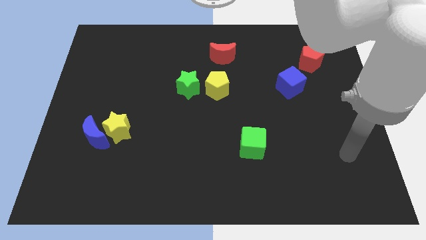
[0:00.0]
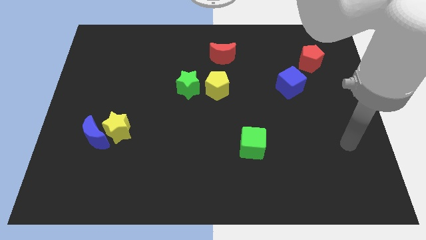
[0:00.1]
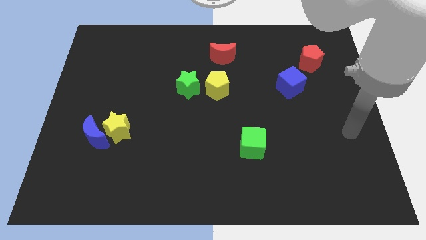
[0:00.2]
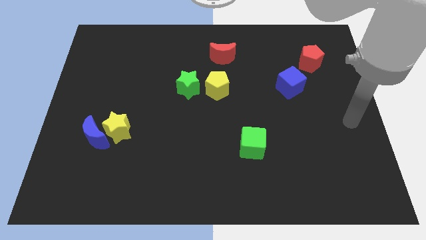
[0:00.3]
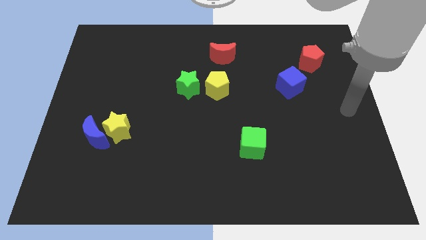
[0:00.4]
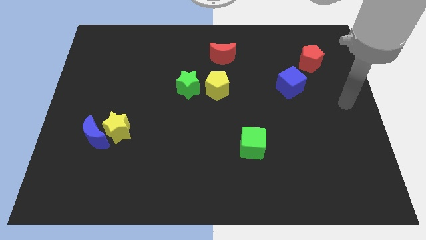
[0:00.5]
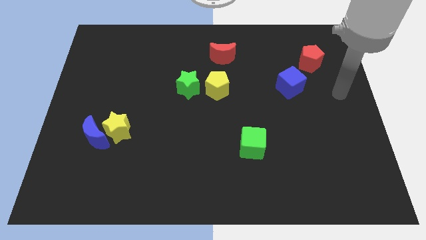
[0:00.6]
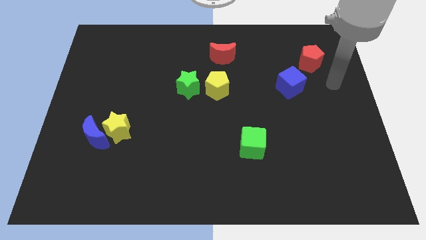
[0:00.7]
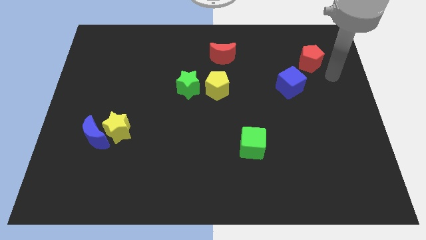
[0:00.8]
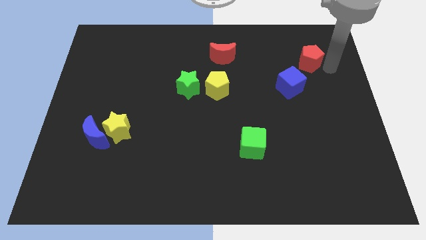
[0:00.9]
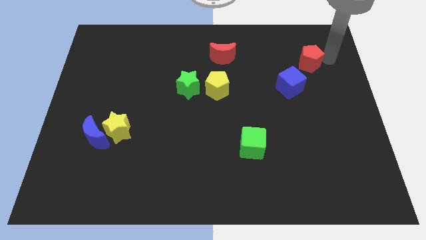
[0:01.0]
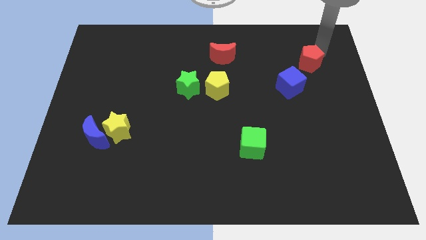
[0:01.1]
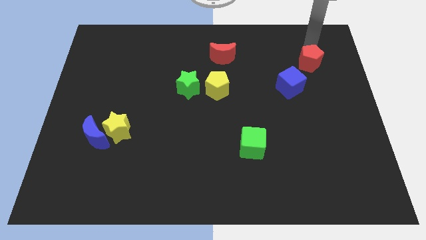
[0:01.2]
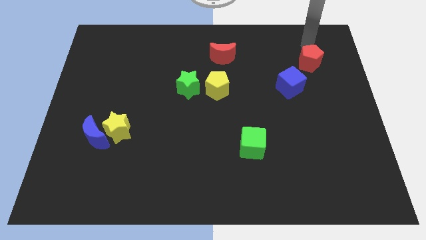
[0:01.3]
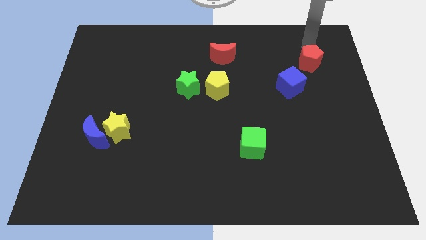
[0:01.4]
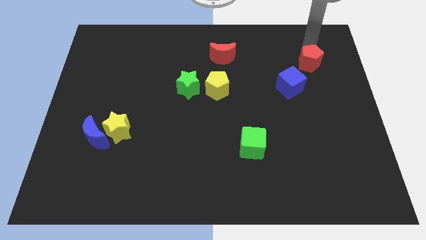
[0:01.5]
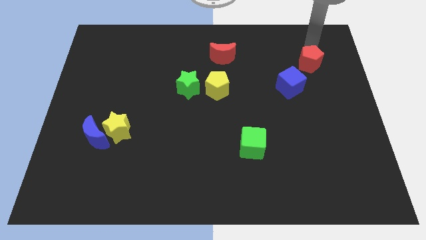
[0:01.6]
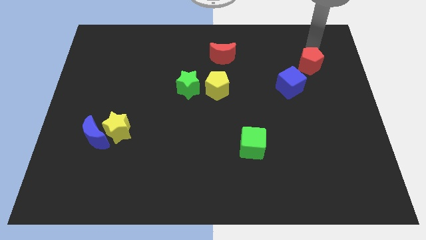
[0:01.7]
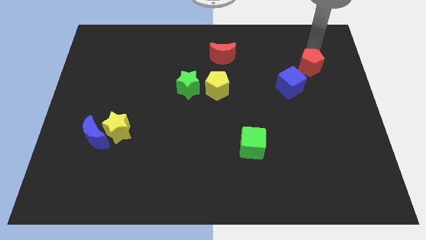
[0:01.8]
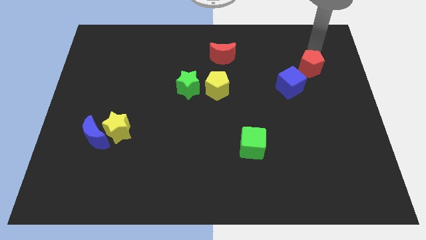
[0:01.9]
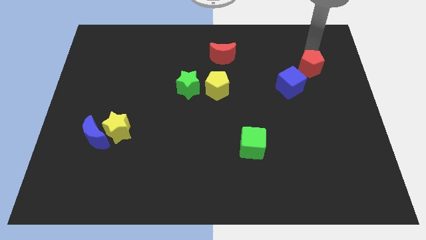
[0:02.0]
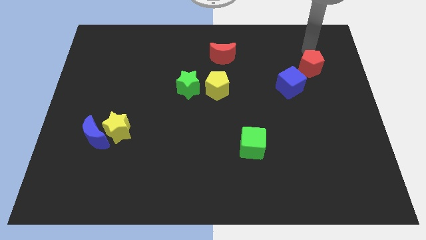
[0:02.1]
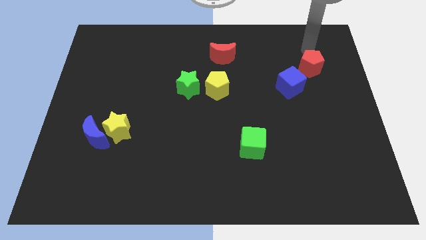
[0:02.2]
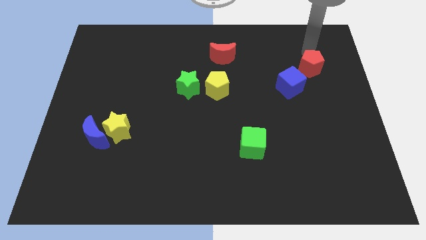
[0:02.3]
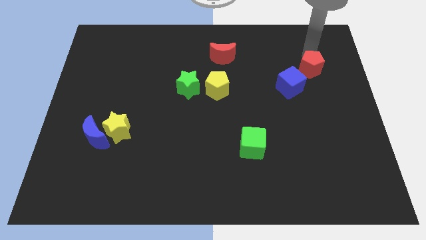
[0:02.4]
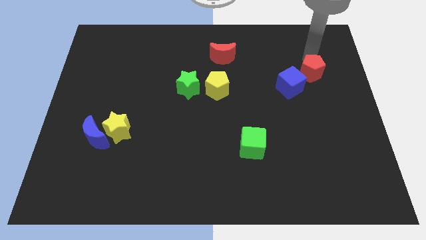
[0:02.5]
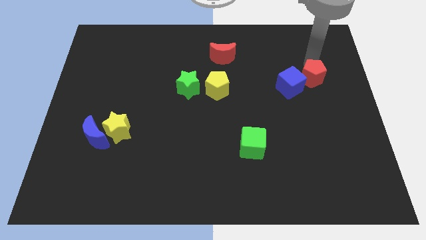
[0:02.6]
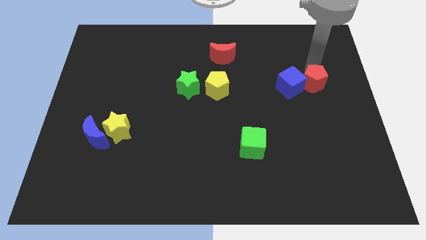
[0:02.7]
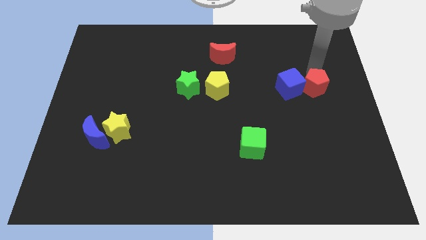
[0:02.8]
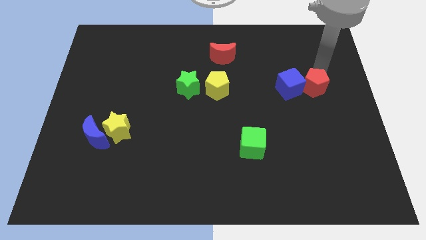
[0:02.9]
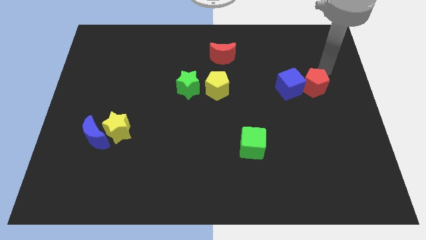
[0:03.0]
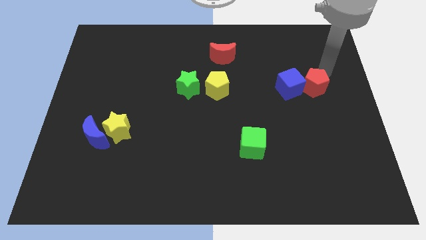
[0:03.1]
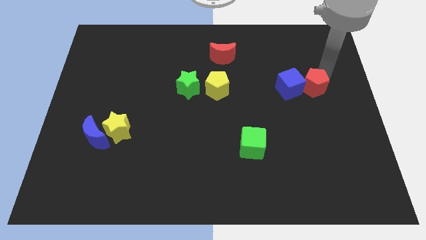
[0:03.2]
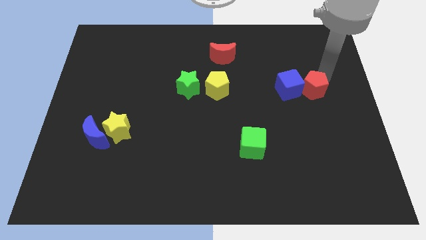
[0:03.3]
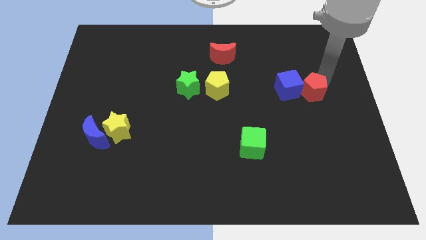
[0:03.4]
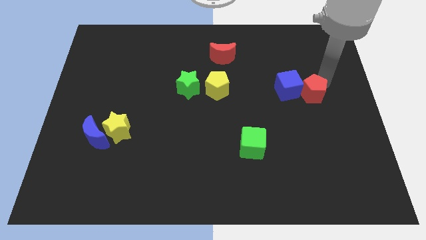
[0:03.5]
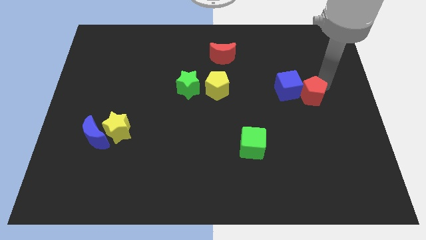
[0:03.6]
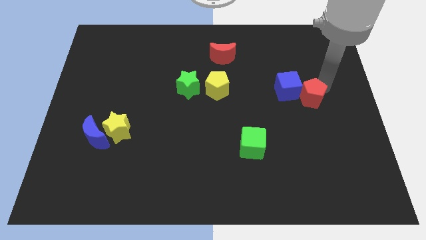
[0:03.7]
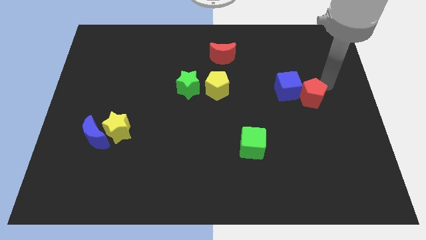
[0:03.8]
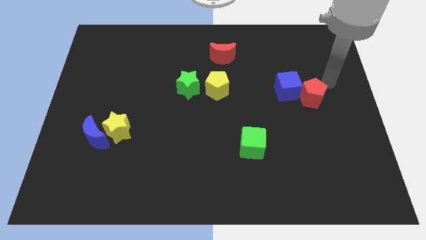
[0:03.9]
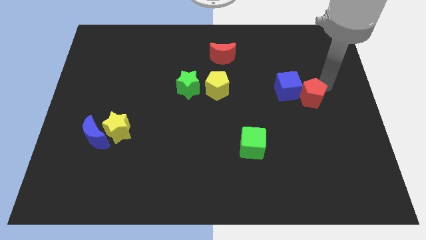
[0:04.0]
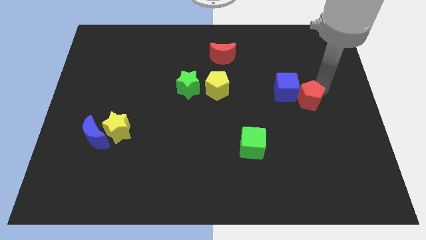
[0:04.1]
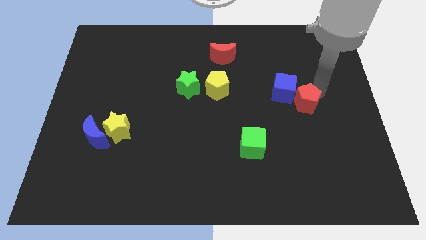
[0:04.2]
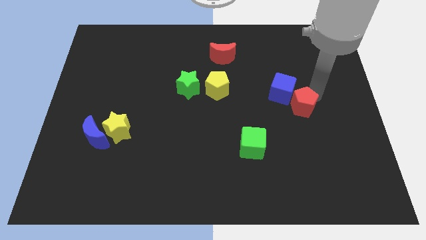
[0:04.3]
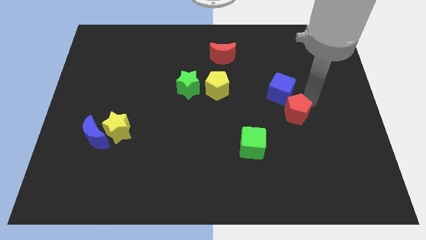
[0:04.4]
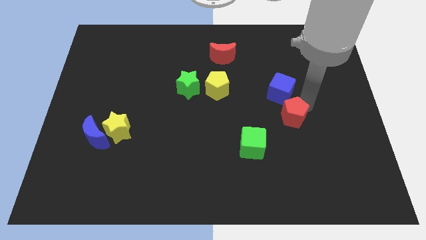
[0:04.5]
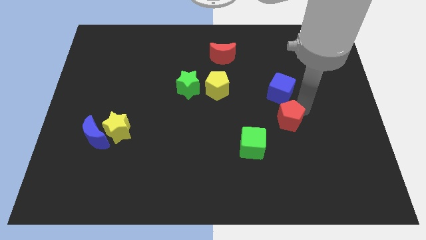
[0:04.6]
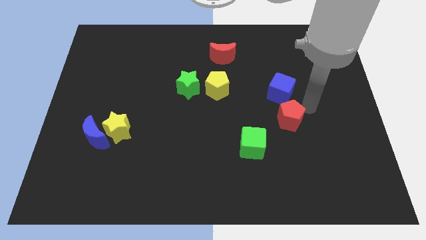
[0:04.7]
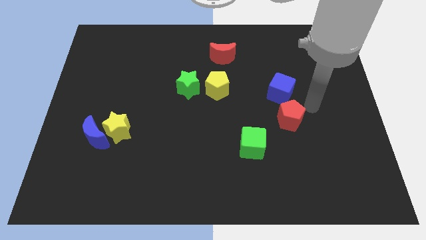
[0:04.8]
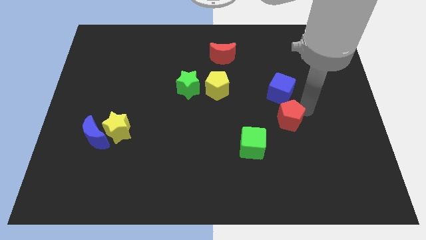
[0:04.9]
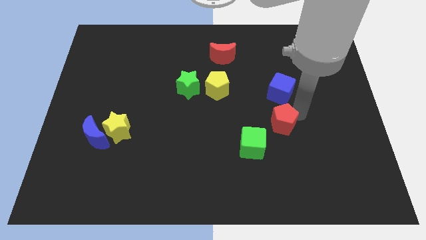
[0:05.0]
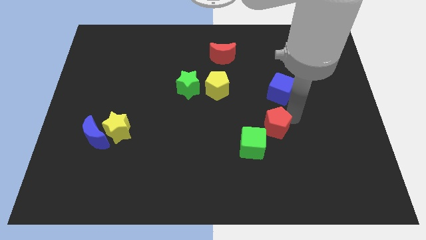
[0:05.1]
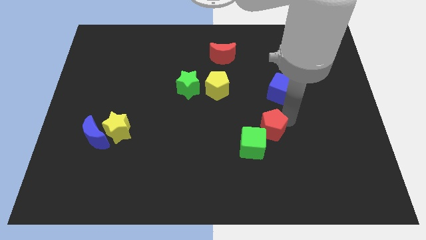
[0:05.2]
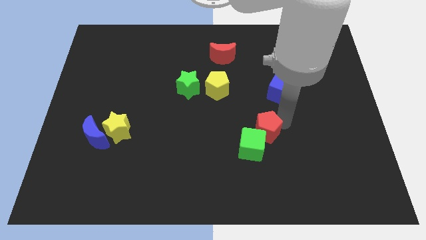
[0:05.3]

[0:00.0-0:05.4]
slide the red pentagon next to the green cube

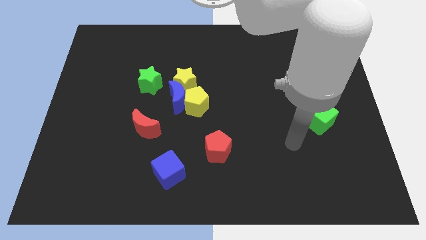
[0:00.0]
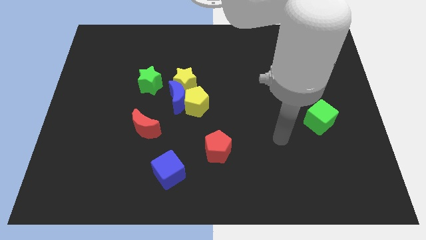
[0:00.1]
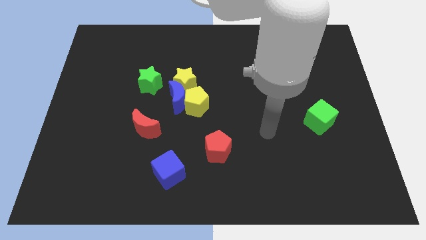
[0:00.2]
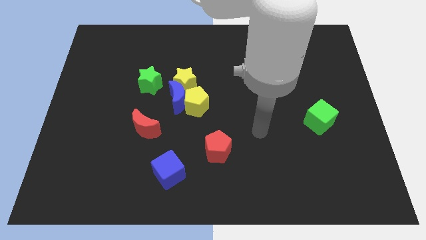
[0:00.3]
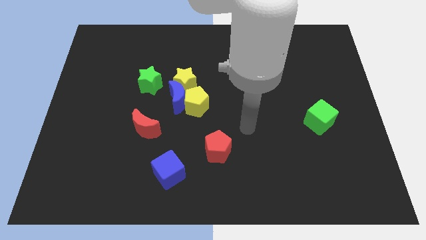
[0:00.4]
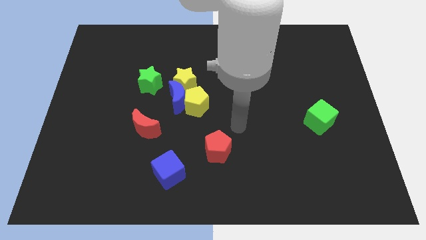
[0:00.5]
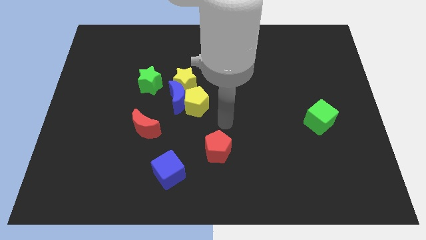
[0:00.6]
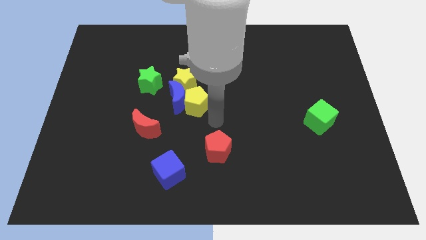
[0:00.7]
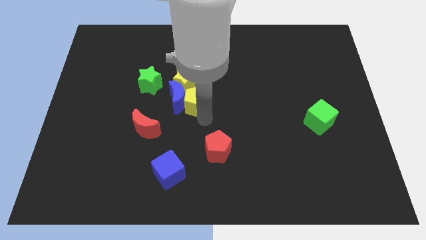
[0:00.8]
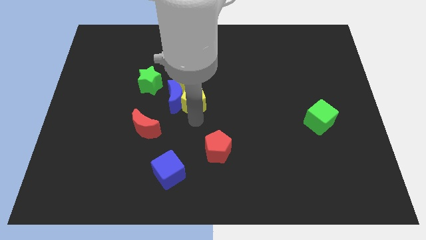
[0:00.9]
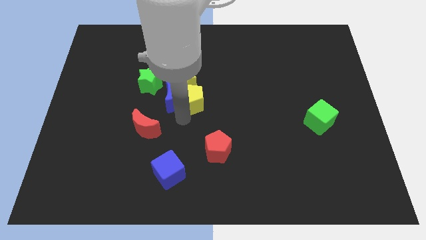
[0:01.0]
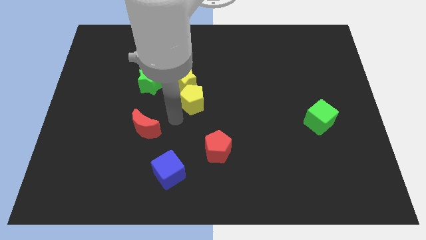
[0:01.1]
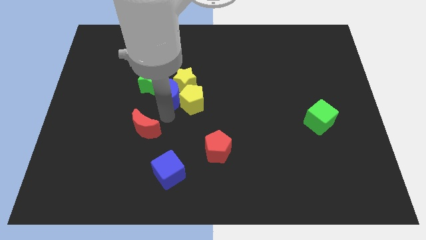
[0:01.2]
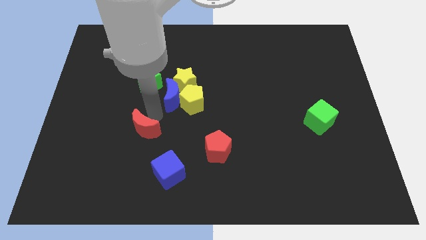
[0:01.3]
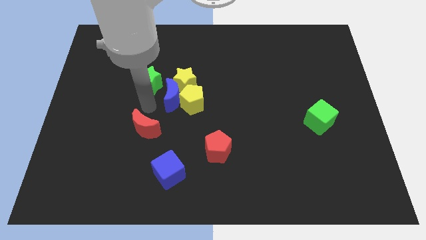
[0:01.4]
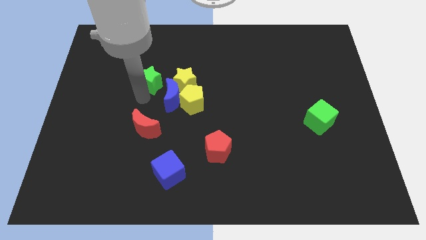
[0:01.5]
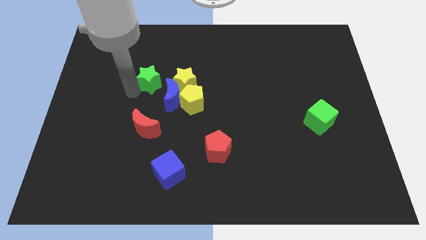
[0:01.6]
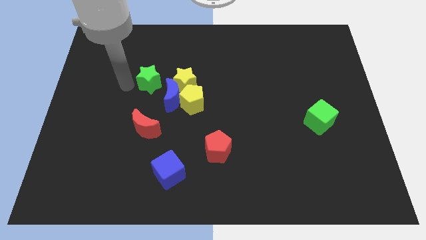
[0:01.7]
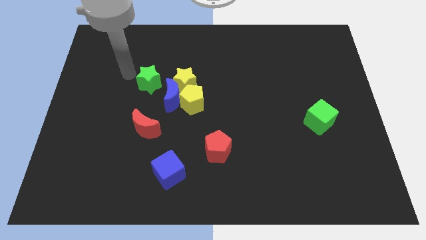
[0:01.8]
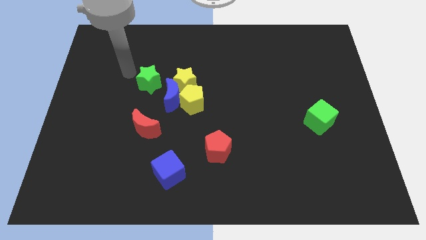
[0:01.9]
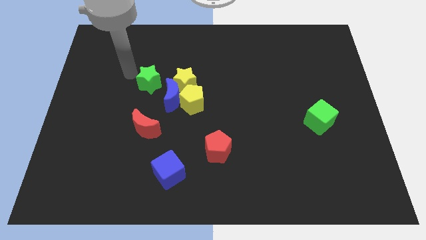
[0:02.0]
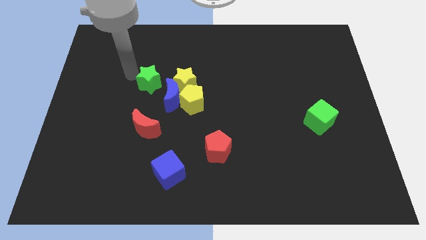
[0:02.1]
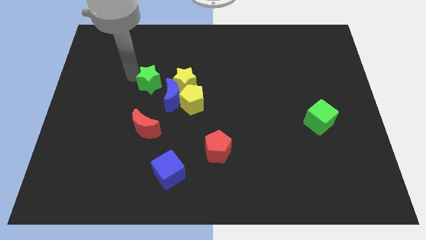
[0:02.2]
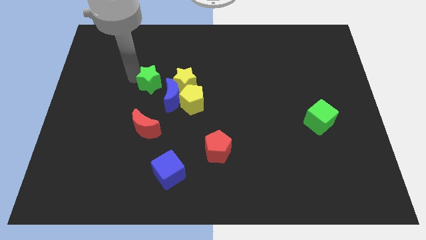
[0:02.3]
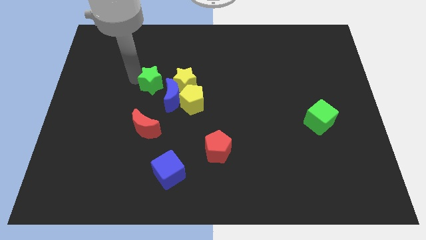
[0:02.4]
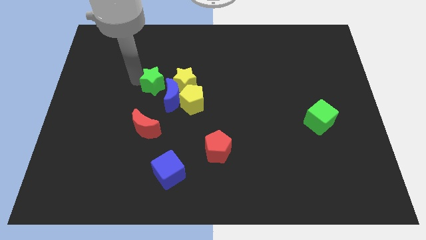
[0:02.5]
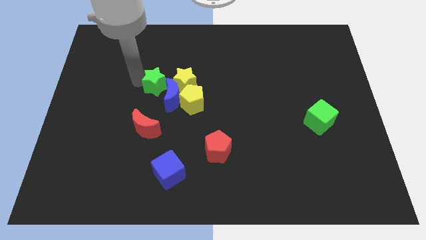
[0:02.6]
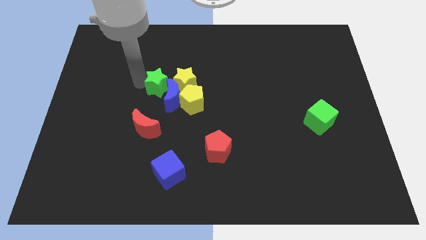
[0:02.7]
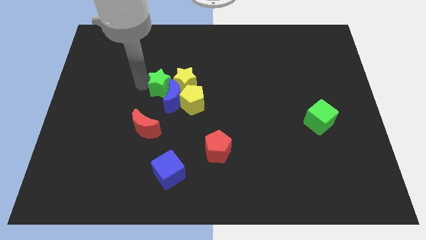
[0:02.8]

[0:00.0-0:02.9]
push the green star towards the yellow star
